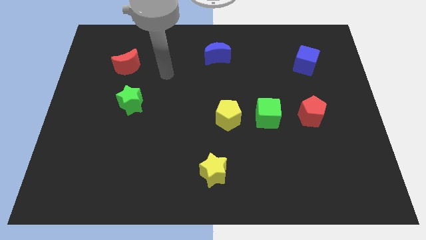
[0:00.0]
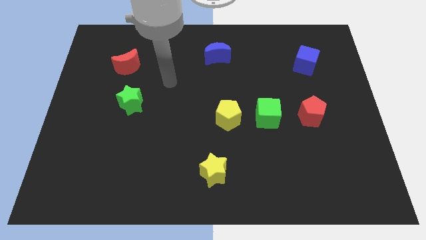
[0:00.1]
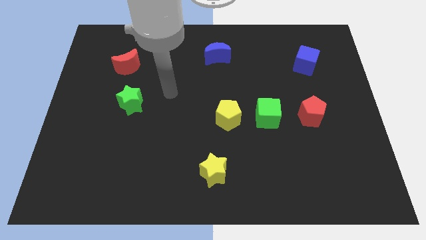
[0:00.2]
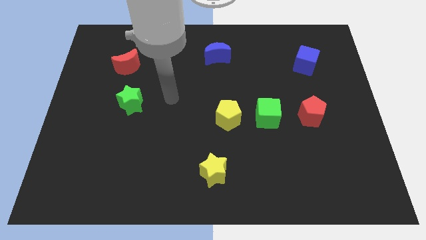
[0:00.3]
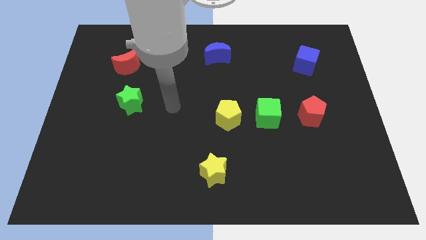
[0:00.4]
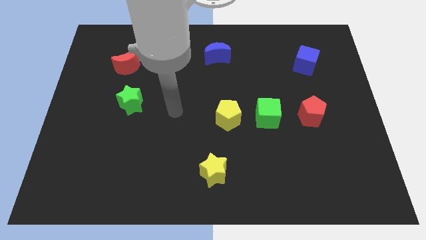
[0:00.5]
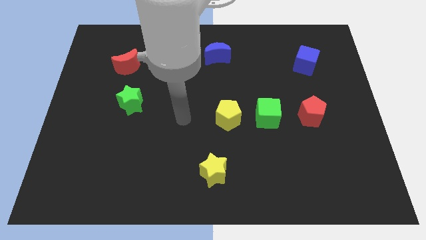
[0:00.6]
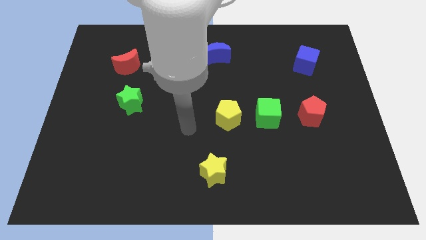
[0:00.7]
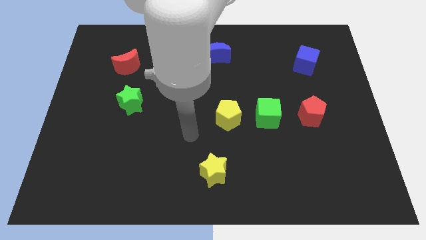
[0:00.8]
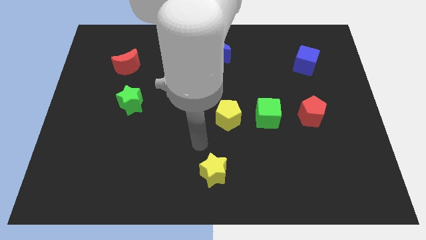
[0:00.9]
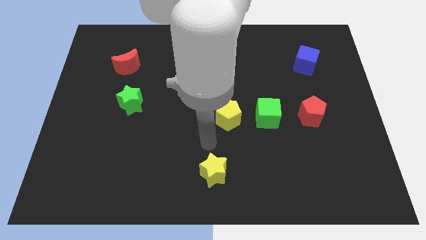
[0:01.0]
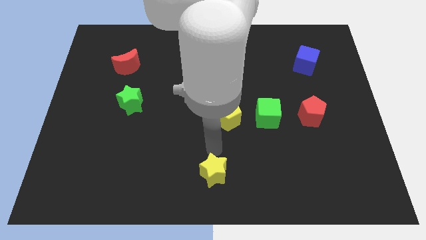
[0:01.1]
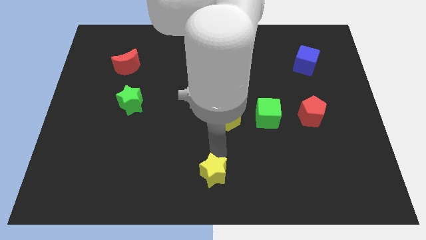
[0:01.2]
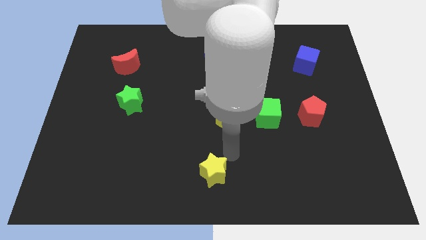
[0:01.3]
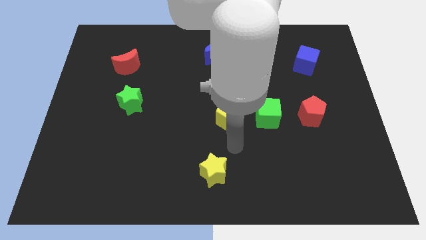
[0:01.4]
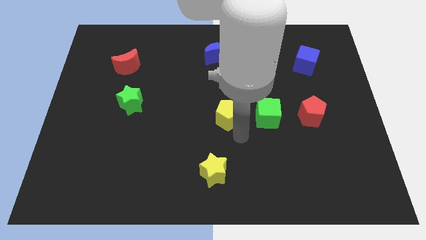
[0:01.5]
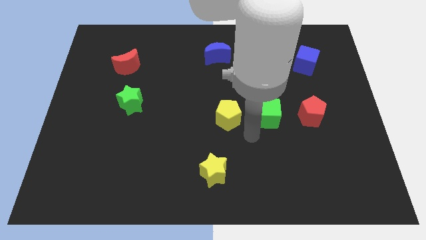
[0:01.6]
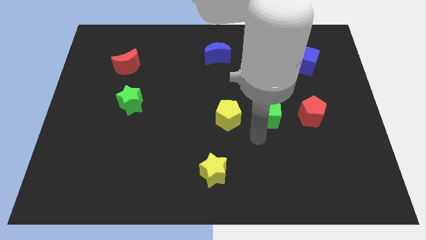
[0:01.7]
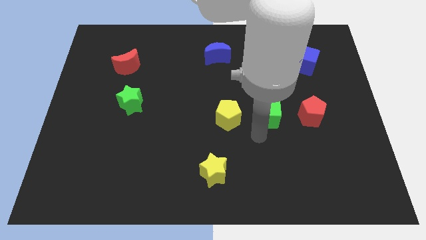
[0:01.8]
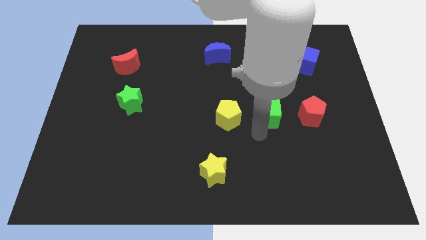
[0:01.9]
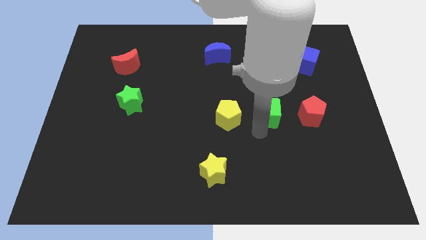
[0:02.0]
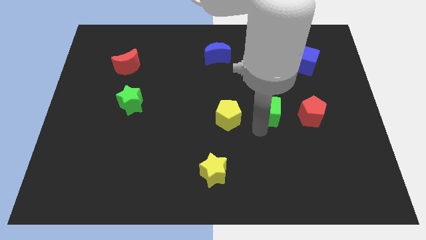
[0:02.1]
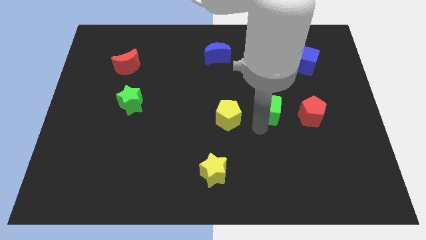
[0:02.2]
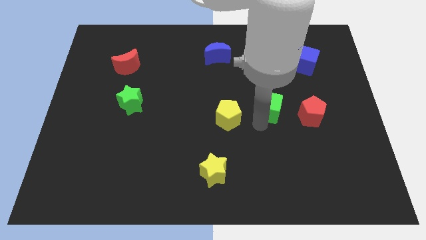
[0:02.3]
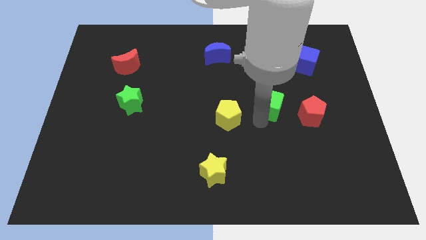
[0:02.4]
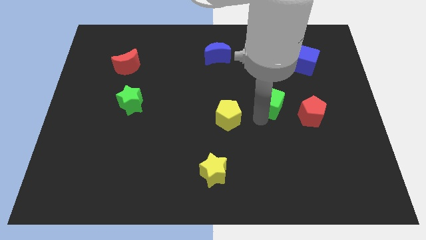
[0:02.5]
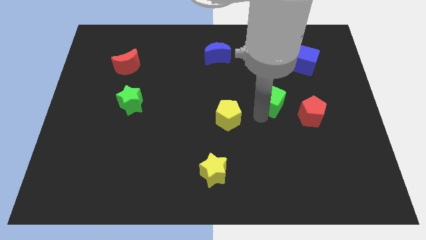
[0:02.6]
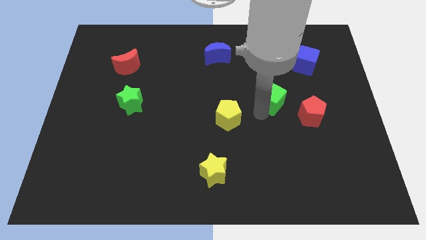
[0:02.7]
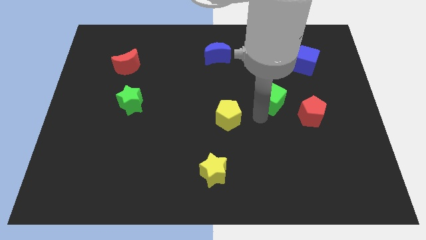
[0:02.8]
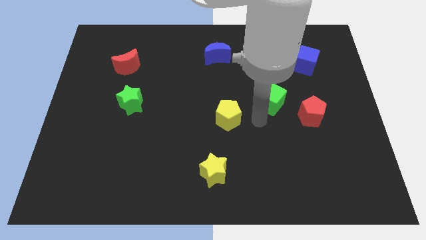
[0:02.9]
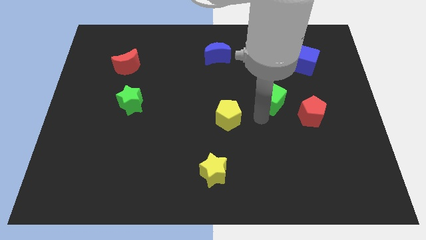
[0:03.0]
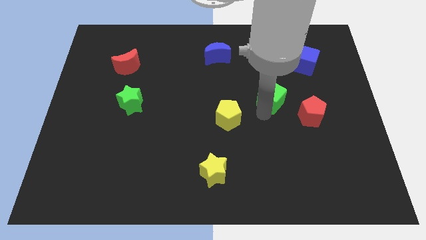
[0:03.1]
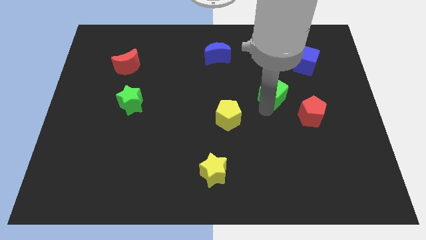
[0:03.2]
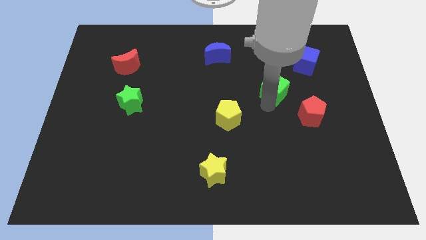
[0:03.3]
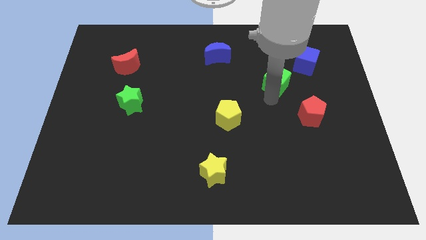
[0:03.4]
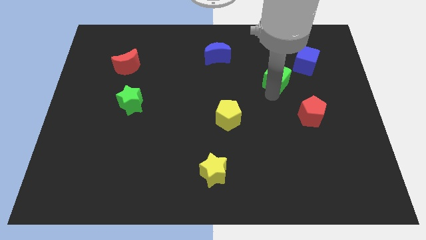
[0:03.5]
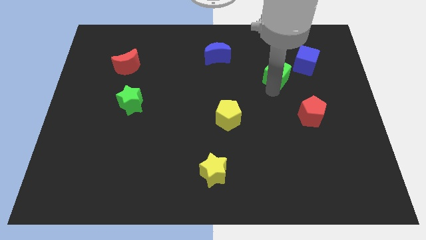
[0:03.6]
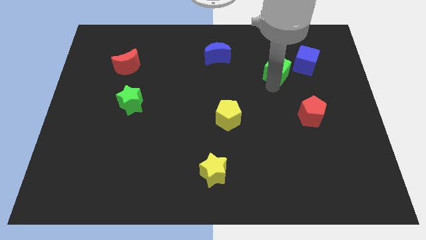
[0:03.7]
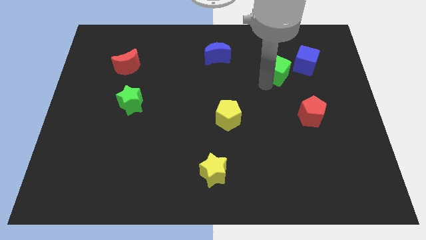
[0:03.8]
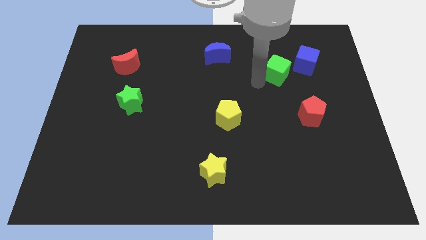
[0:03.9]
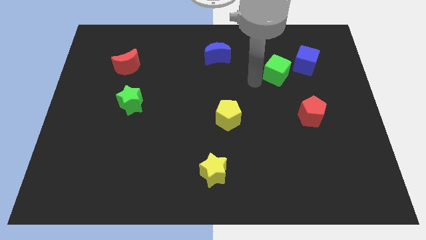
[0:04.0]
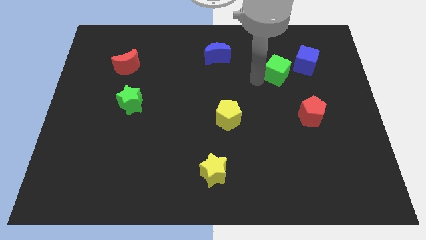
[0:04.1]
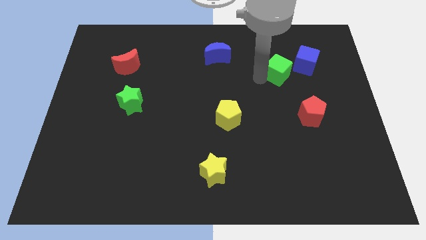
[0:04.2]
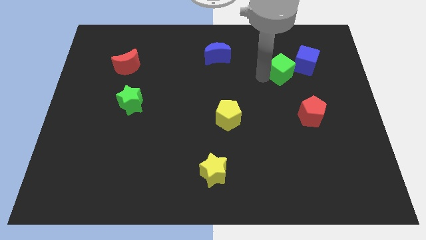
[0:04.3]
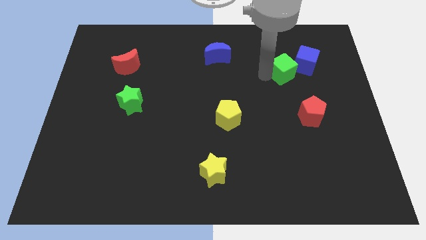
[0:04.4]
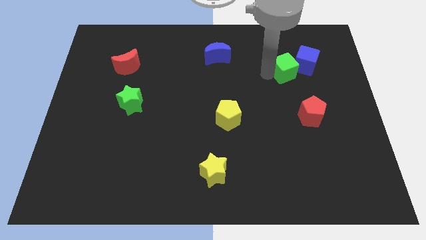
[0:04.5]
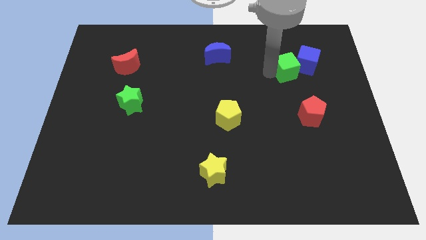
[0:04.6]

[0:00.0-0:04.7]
put the green cube close to the blue cube

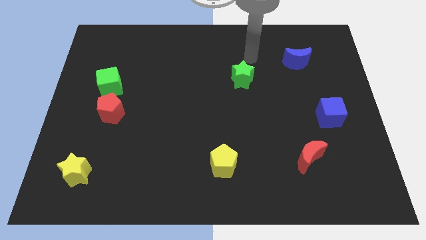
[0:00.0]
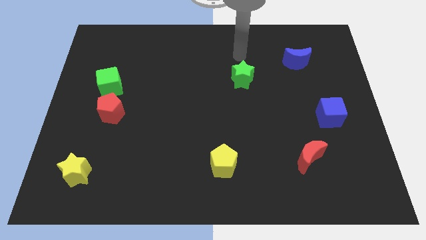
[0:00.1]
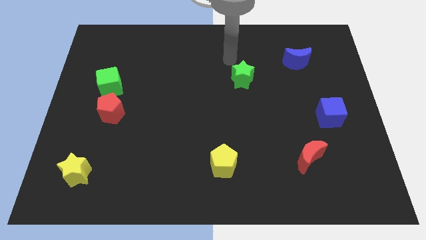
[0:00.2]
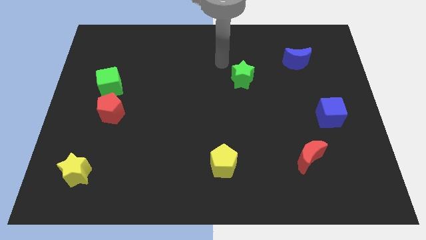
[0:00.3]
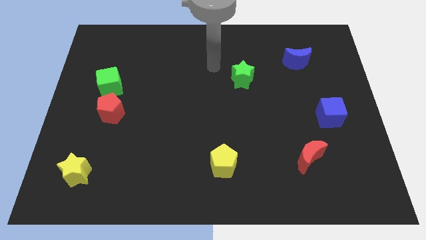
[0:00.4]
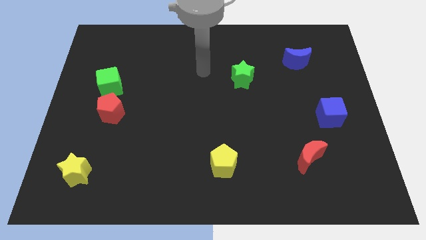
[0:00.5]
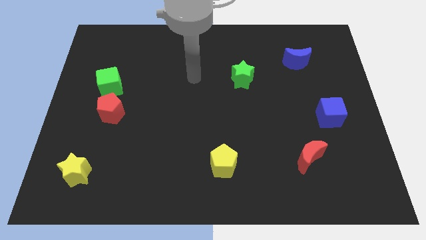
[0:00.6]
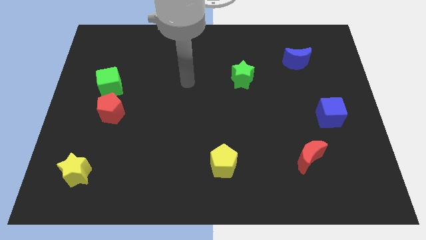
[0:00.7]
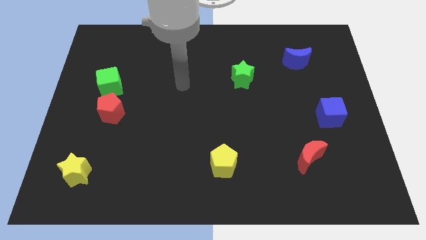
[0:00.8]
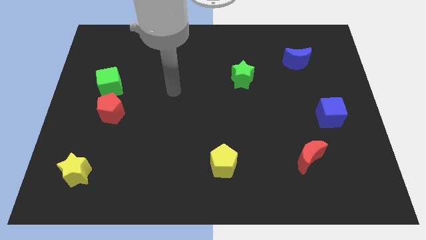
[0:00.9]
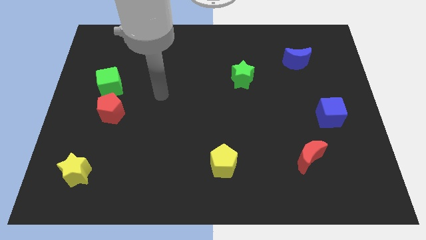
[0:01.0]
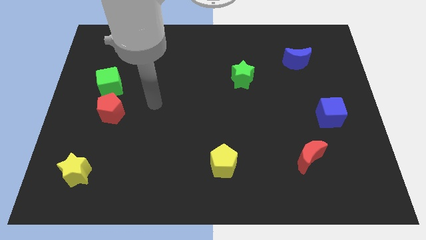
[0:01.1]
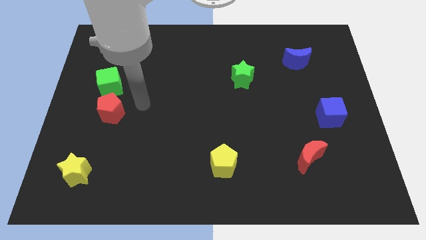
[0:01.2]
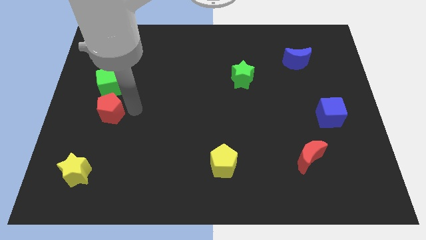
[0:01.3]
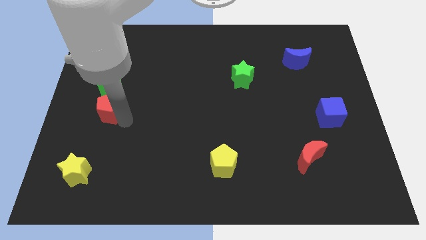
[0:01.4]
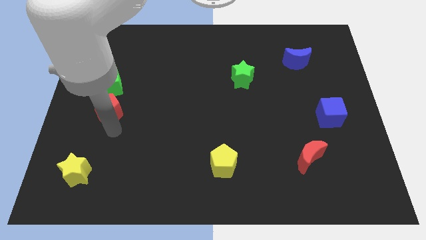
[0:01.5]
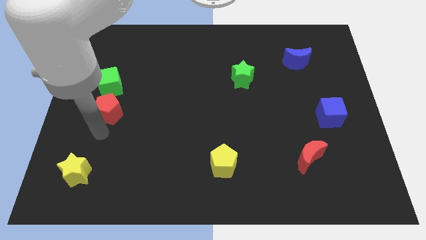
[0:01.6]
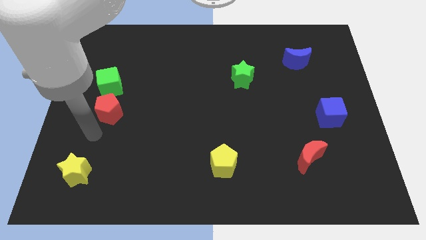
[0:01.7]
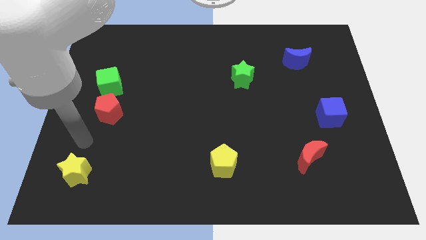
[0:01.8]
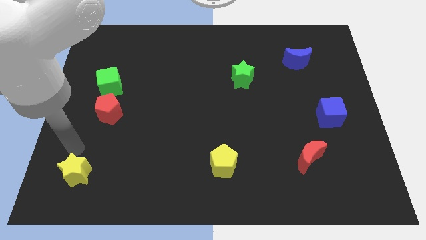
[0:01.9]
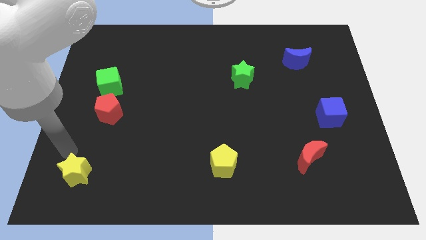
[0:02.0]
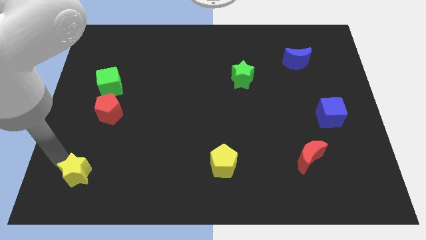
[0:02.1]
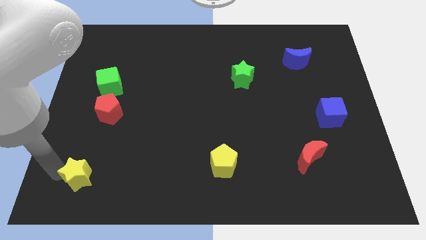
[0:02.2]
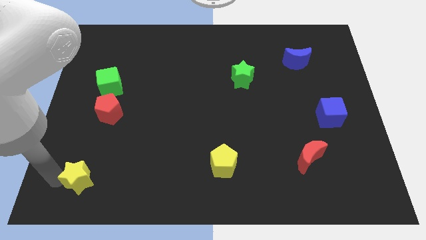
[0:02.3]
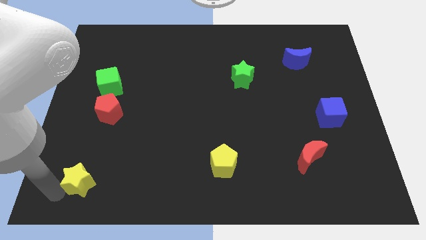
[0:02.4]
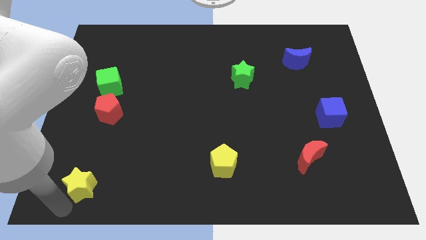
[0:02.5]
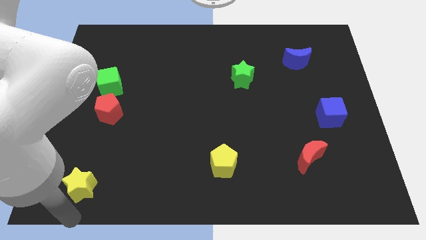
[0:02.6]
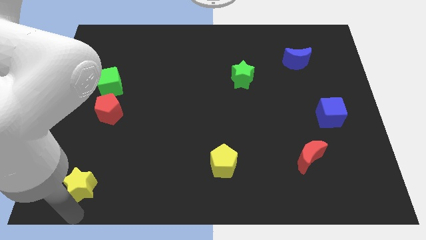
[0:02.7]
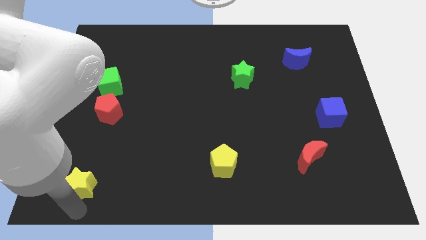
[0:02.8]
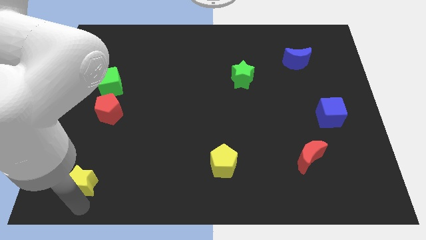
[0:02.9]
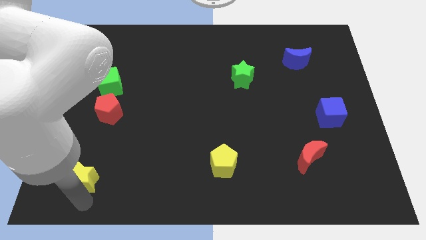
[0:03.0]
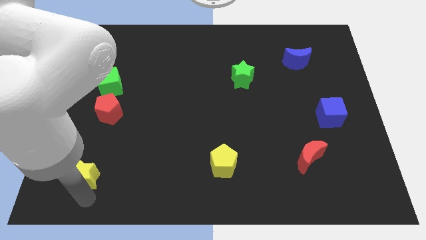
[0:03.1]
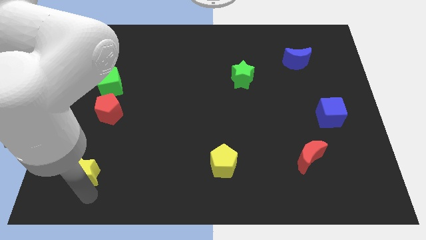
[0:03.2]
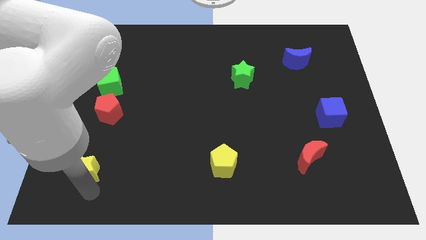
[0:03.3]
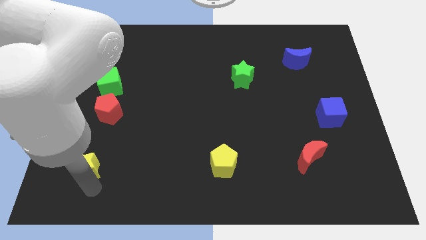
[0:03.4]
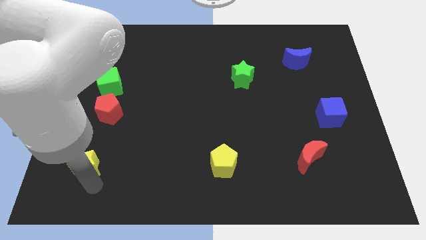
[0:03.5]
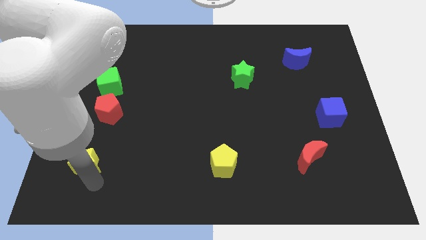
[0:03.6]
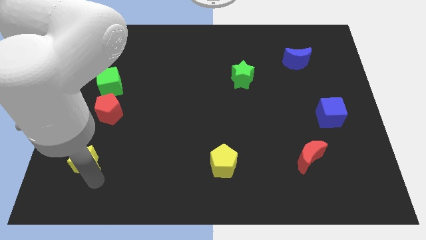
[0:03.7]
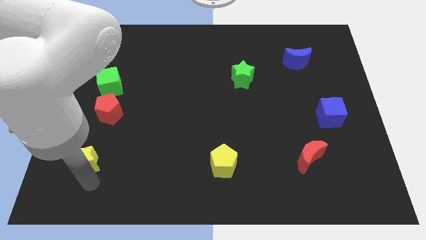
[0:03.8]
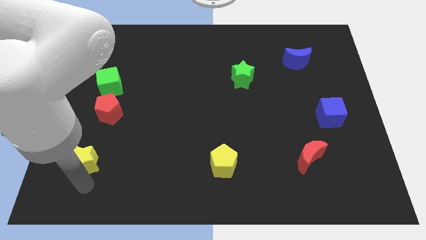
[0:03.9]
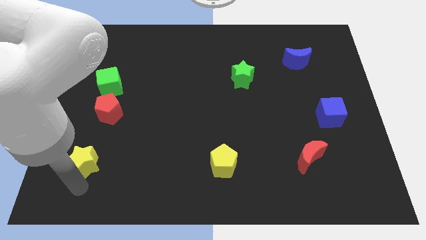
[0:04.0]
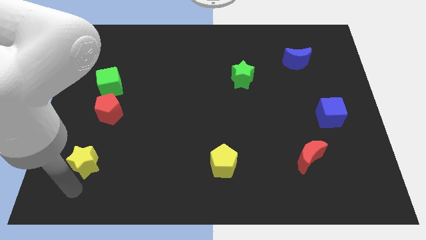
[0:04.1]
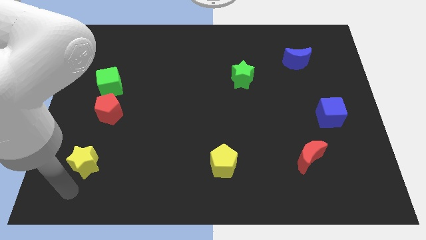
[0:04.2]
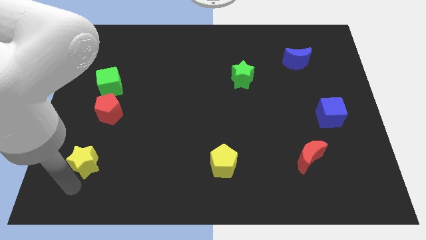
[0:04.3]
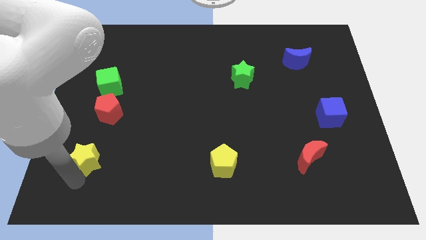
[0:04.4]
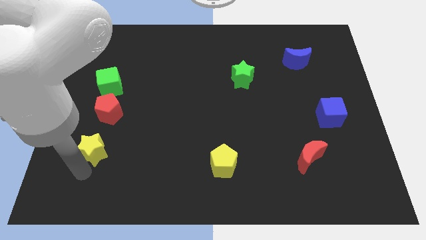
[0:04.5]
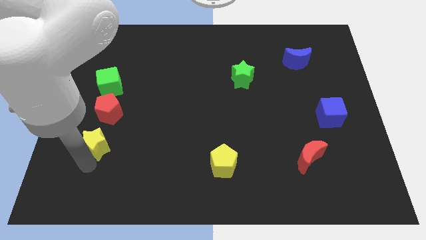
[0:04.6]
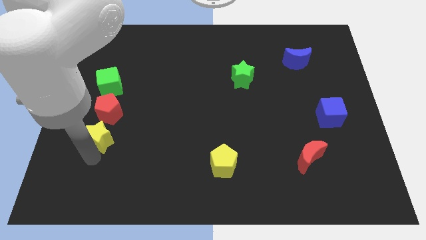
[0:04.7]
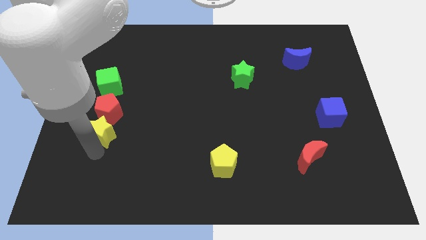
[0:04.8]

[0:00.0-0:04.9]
push the yellow star close to the red pentagon
